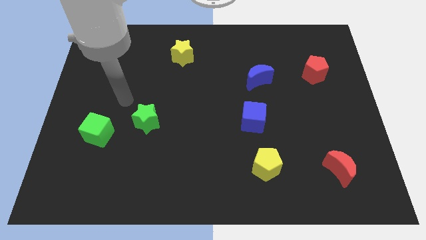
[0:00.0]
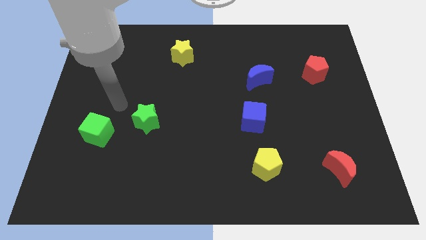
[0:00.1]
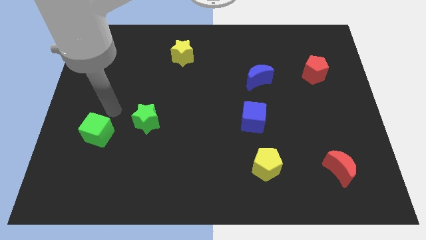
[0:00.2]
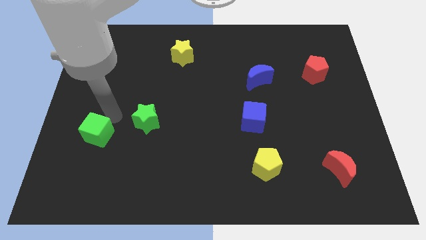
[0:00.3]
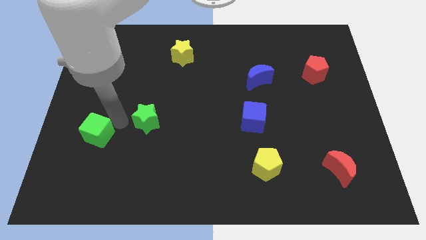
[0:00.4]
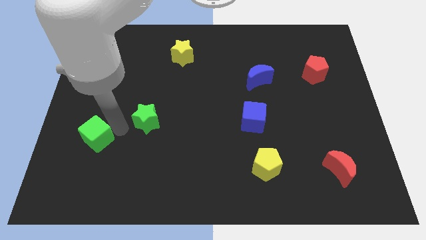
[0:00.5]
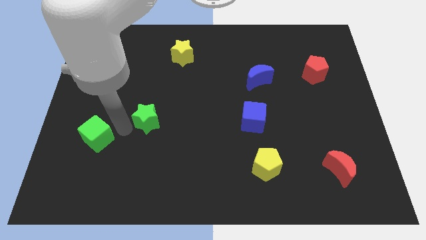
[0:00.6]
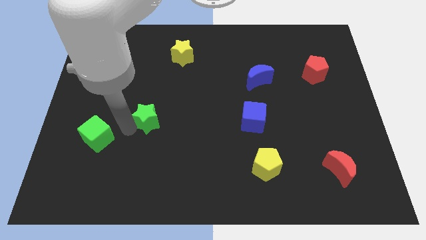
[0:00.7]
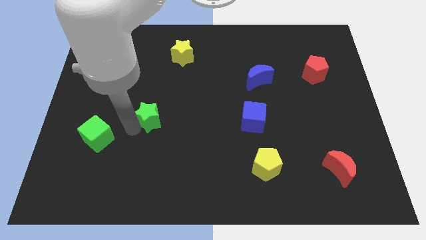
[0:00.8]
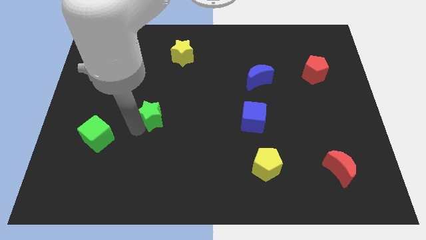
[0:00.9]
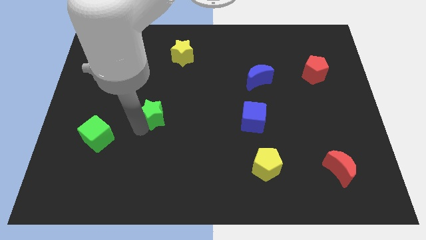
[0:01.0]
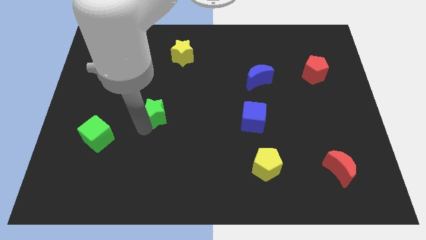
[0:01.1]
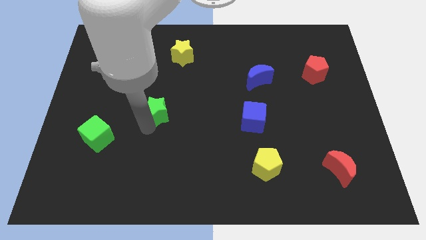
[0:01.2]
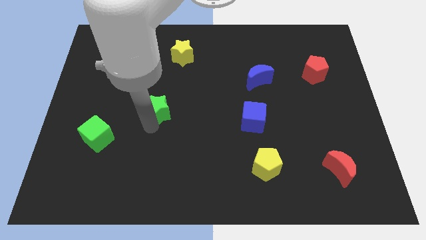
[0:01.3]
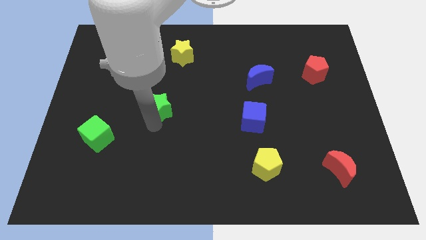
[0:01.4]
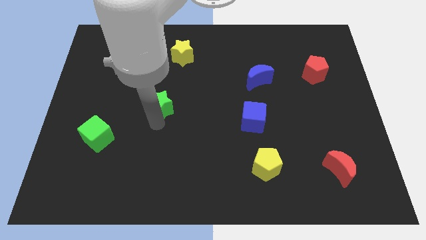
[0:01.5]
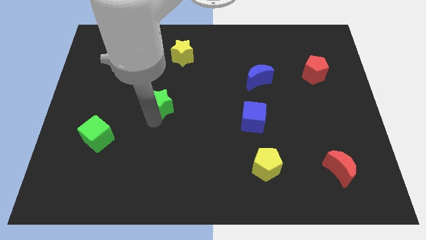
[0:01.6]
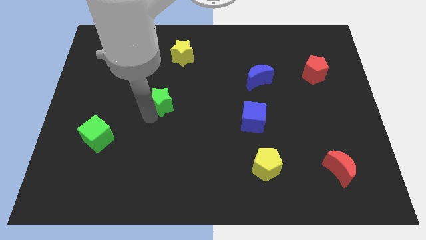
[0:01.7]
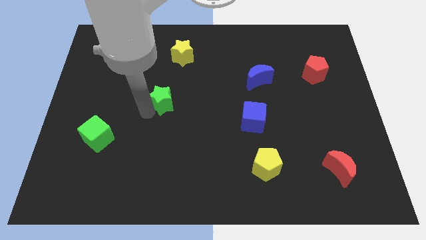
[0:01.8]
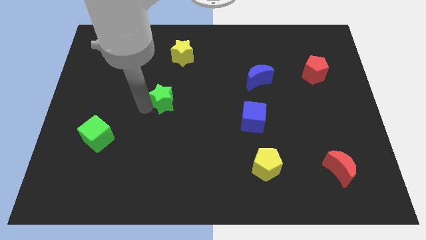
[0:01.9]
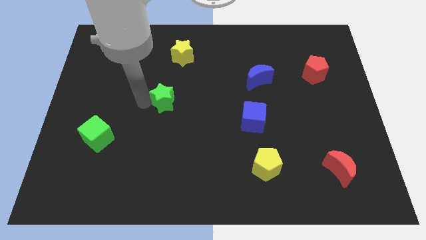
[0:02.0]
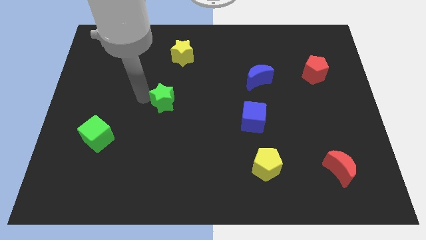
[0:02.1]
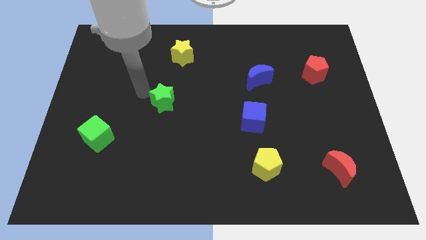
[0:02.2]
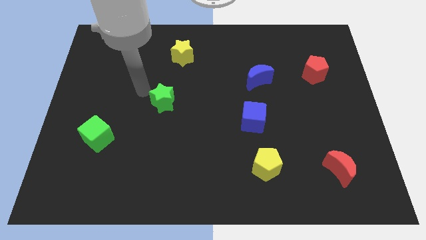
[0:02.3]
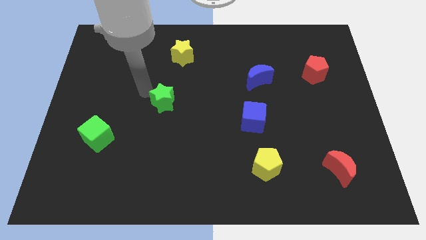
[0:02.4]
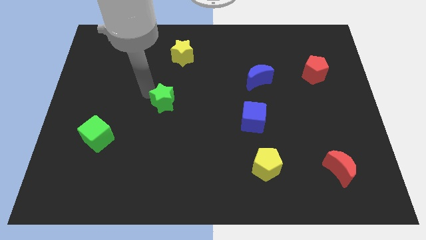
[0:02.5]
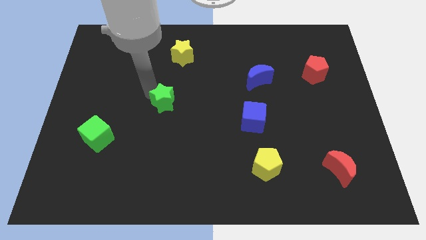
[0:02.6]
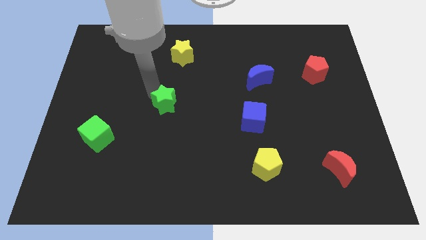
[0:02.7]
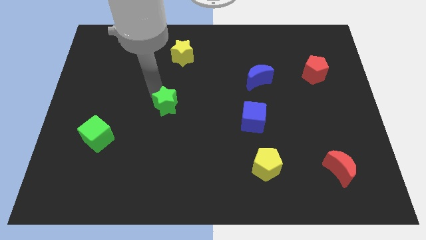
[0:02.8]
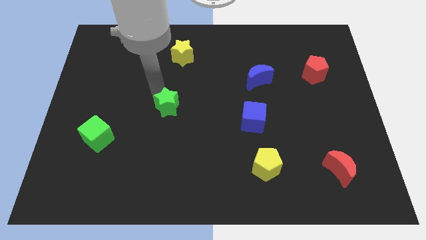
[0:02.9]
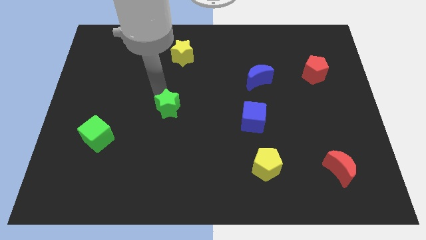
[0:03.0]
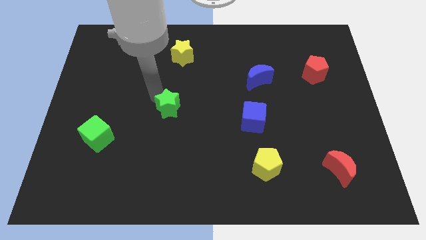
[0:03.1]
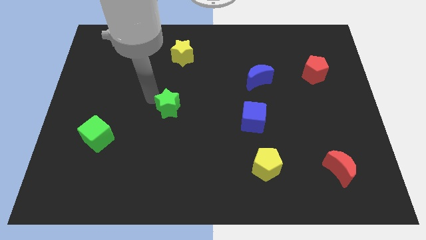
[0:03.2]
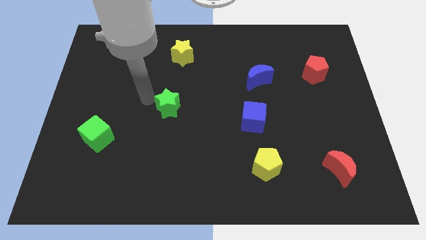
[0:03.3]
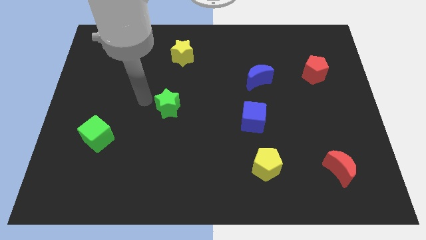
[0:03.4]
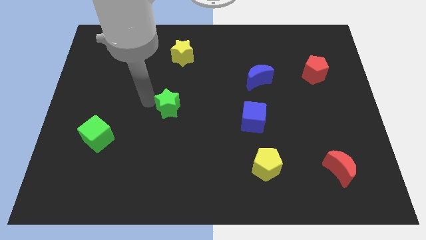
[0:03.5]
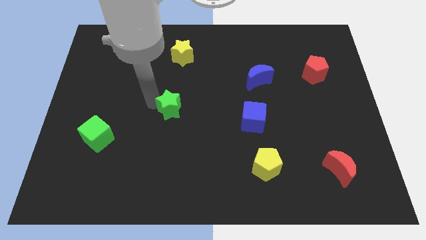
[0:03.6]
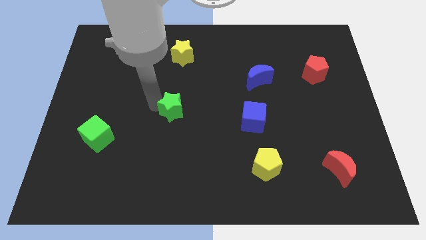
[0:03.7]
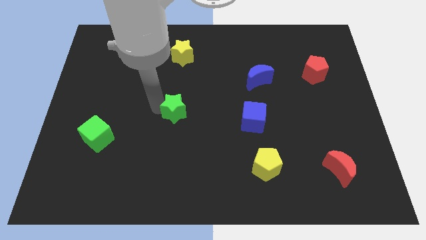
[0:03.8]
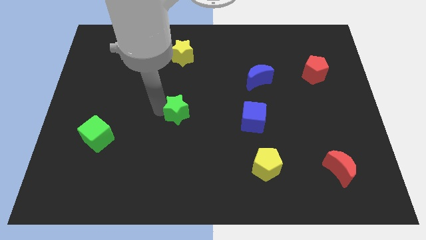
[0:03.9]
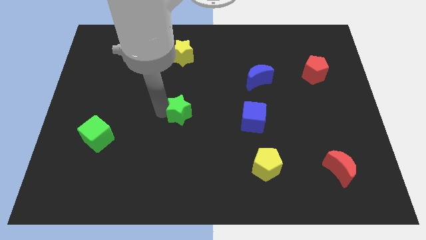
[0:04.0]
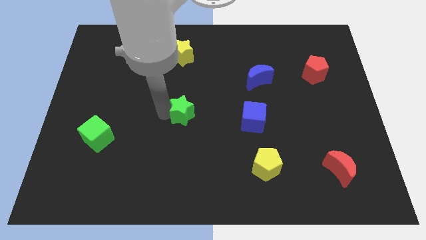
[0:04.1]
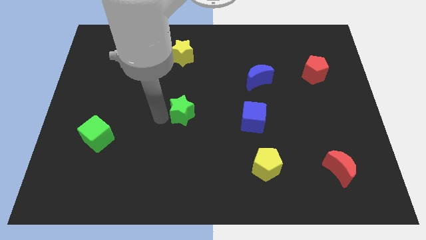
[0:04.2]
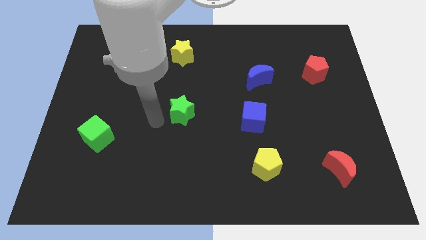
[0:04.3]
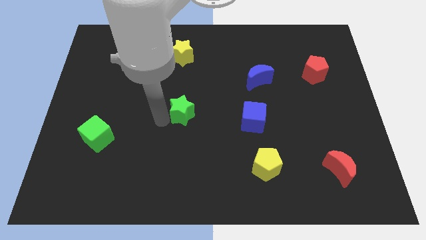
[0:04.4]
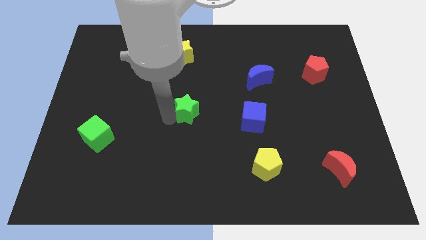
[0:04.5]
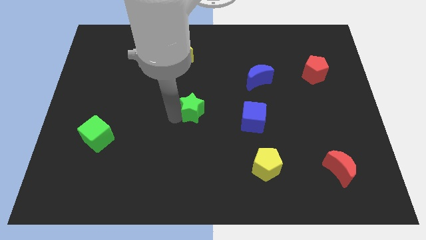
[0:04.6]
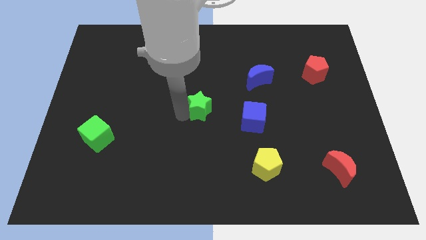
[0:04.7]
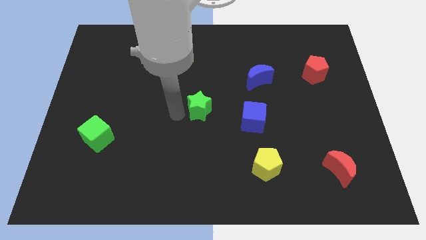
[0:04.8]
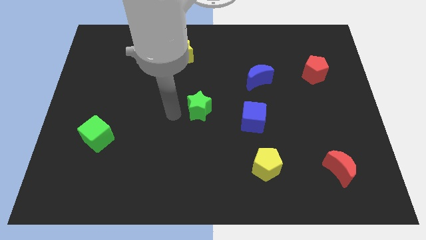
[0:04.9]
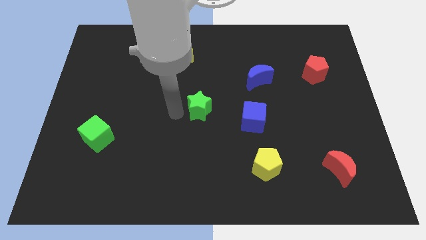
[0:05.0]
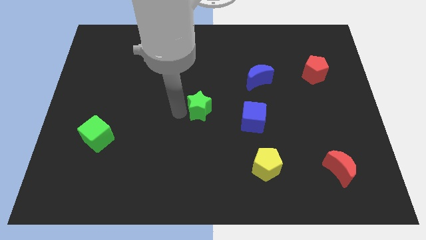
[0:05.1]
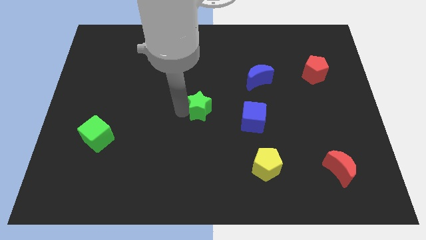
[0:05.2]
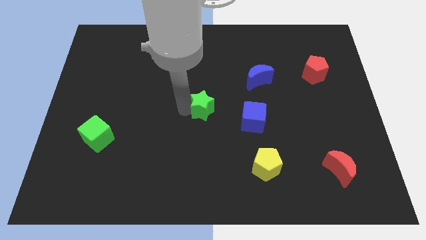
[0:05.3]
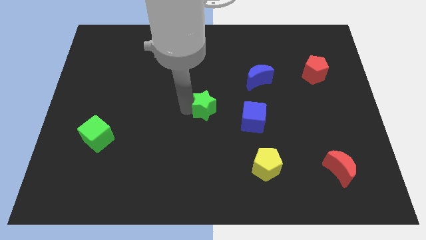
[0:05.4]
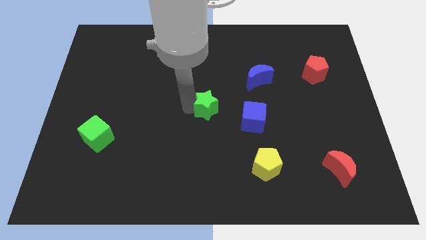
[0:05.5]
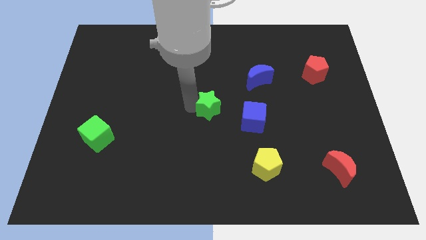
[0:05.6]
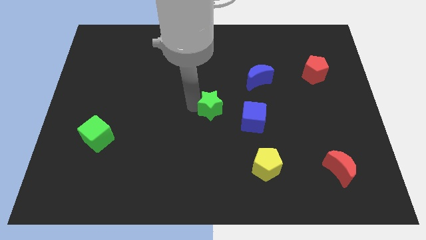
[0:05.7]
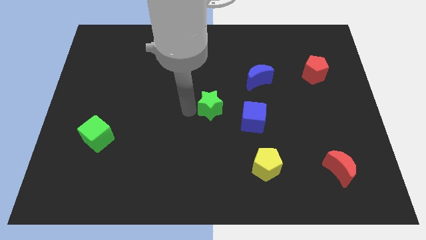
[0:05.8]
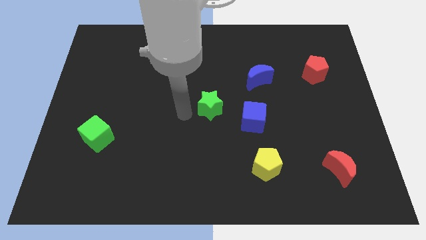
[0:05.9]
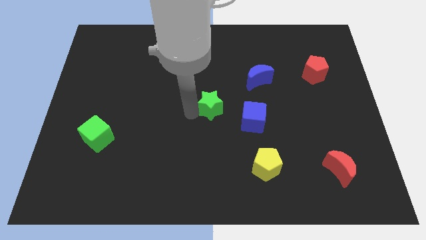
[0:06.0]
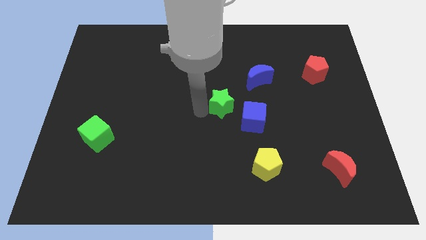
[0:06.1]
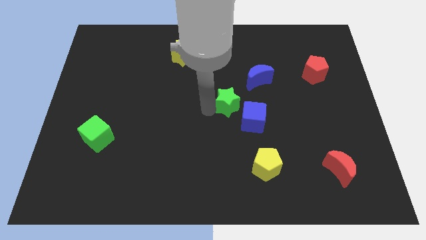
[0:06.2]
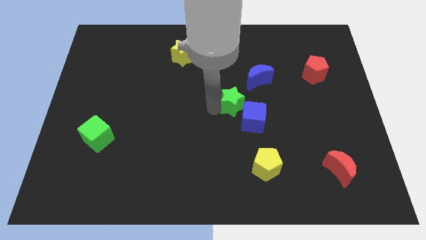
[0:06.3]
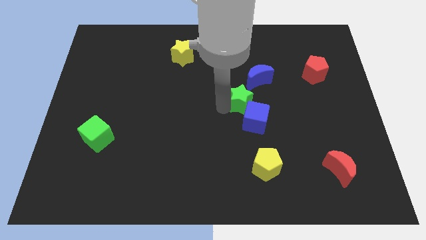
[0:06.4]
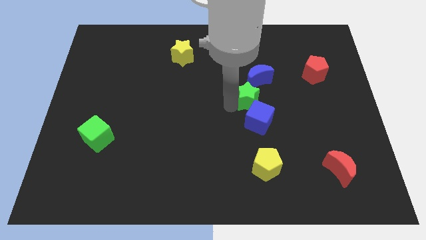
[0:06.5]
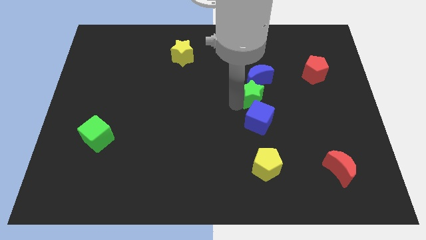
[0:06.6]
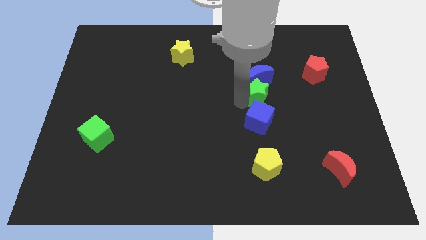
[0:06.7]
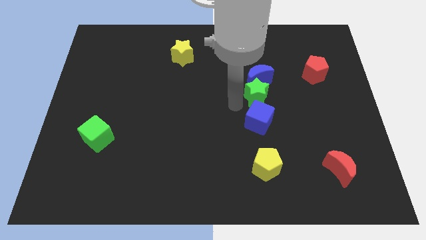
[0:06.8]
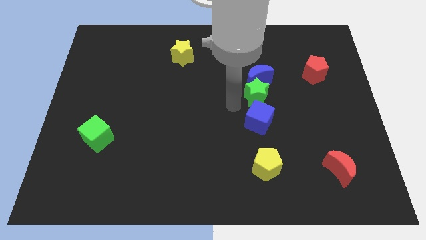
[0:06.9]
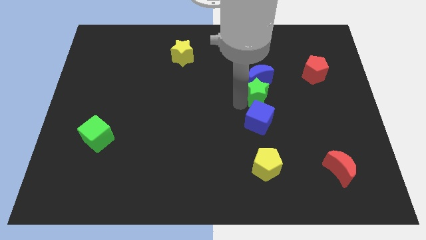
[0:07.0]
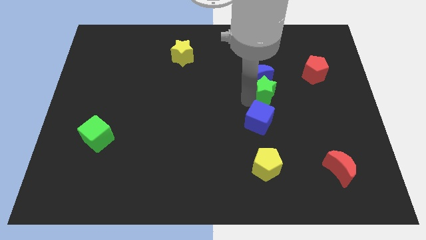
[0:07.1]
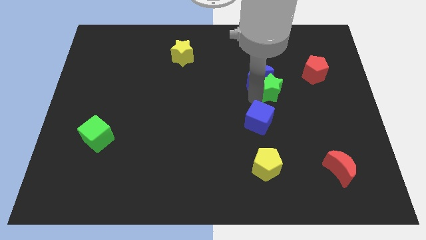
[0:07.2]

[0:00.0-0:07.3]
slide the green star just right of the blue moon

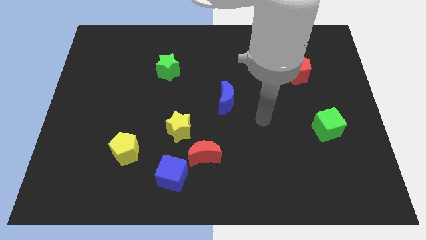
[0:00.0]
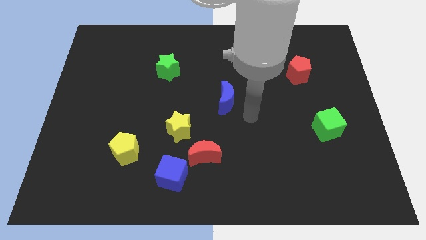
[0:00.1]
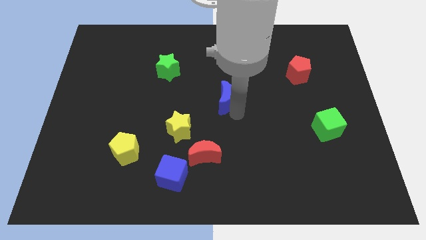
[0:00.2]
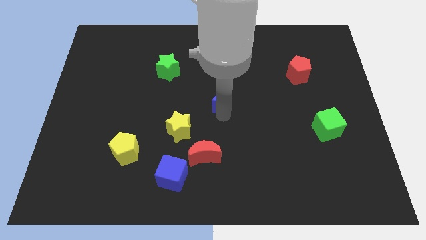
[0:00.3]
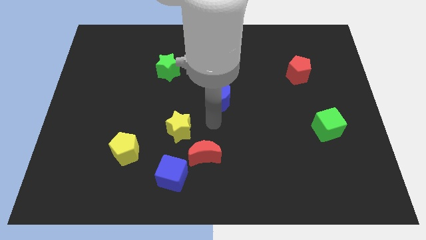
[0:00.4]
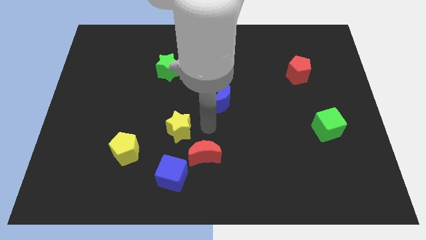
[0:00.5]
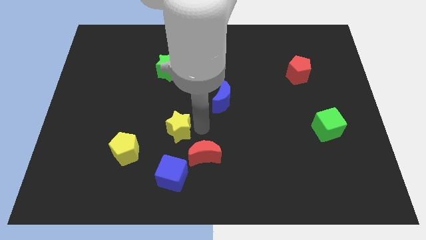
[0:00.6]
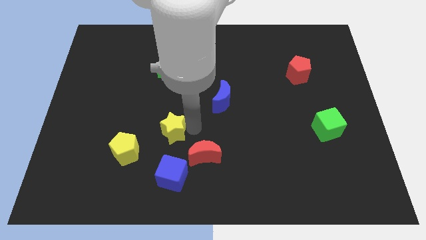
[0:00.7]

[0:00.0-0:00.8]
put the yellow star diagonally up and to the right of the yellow pentagon
